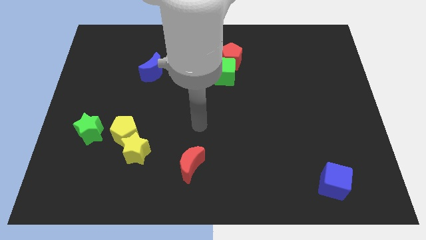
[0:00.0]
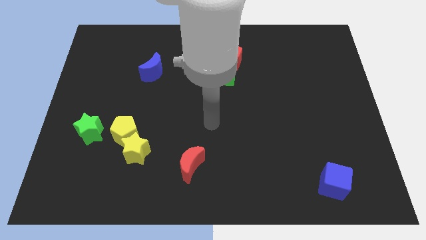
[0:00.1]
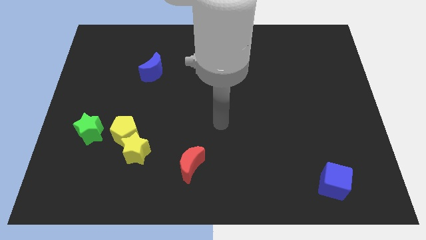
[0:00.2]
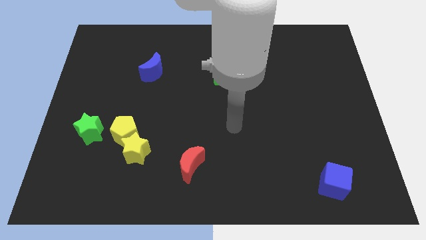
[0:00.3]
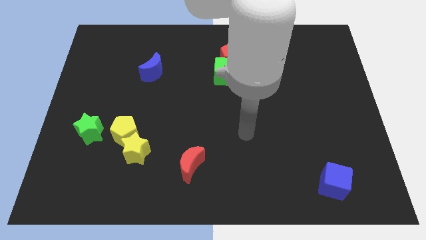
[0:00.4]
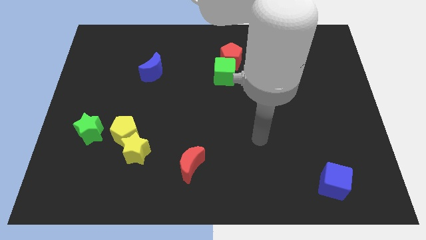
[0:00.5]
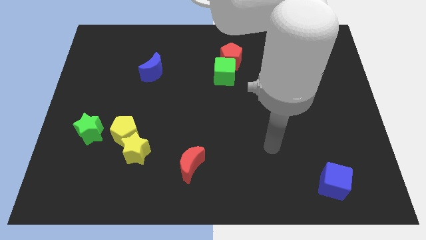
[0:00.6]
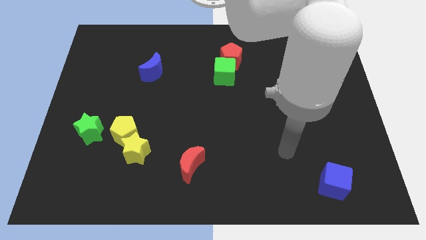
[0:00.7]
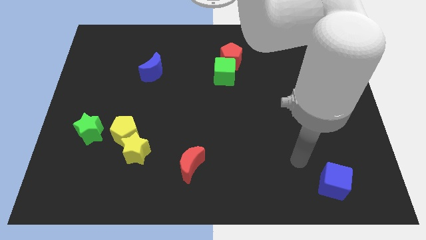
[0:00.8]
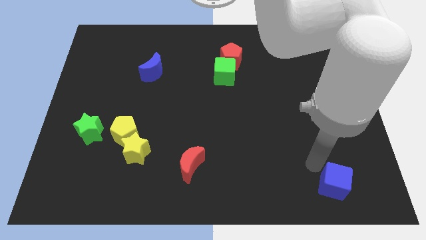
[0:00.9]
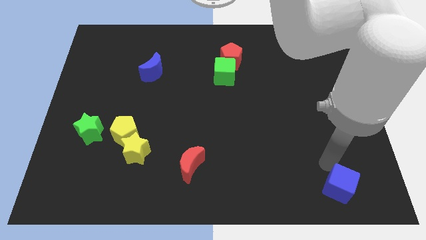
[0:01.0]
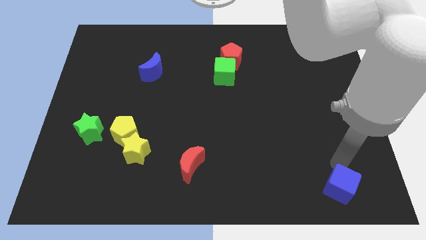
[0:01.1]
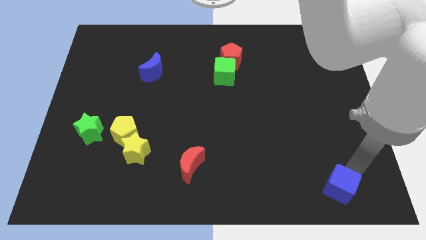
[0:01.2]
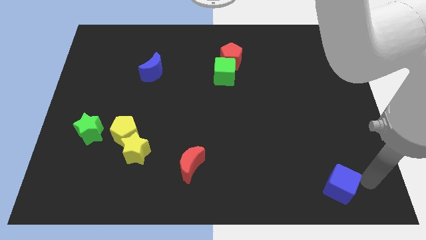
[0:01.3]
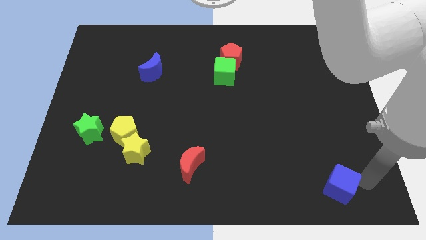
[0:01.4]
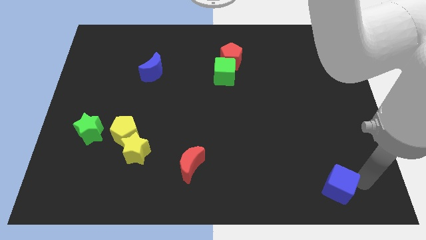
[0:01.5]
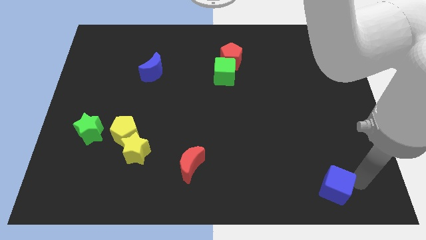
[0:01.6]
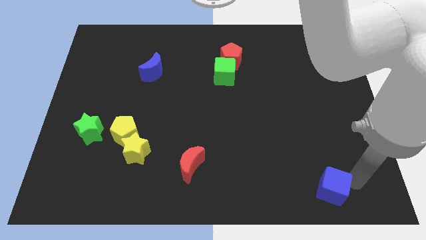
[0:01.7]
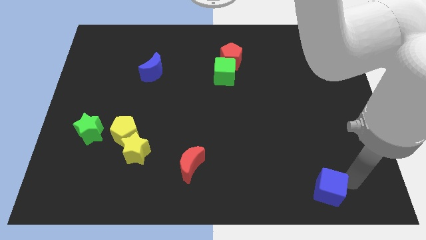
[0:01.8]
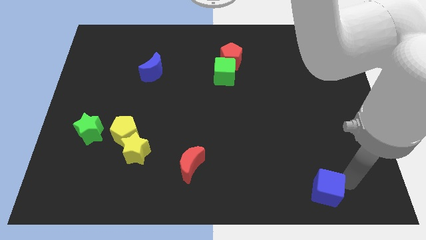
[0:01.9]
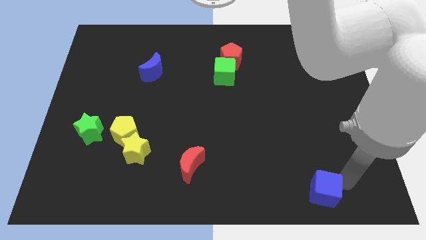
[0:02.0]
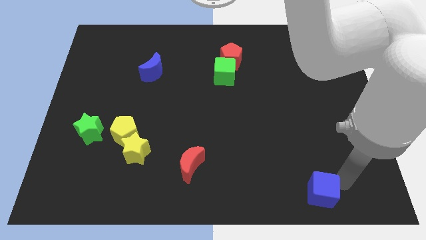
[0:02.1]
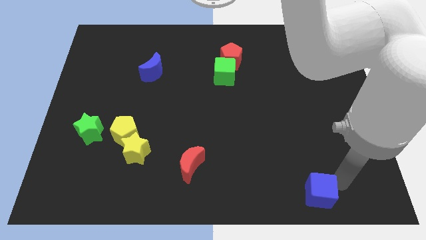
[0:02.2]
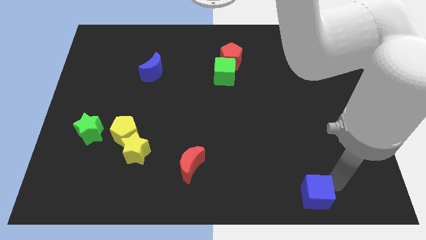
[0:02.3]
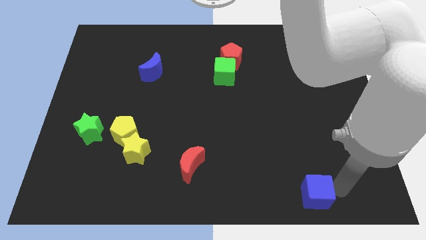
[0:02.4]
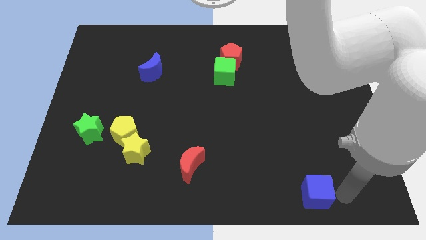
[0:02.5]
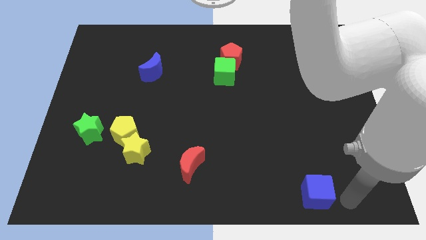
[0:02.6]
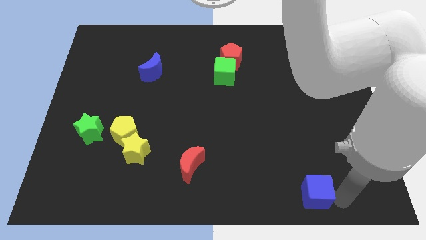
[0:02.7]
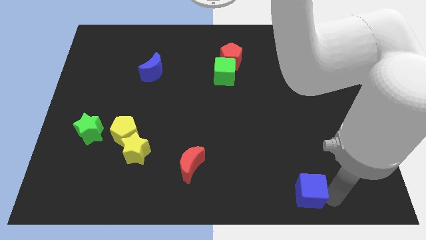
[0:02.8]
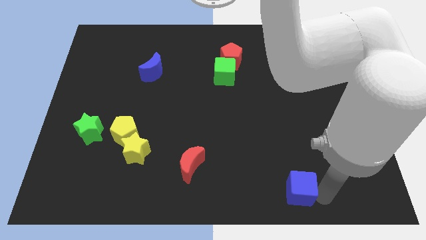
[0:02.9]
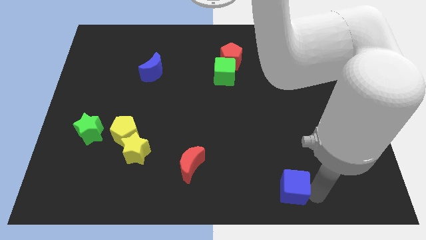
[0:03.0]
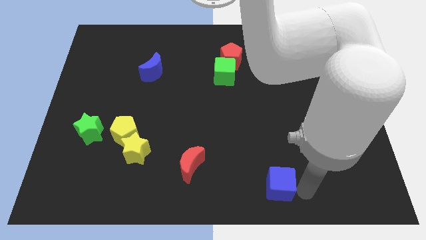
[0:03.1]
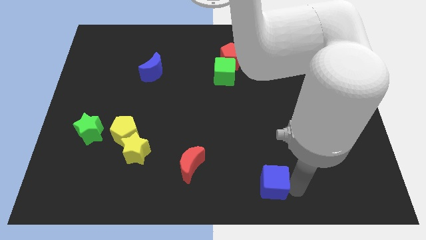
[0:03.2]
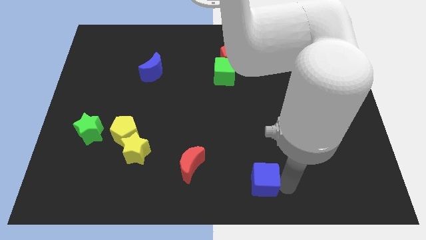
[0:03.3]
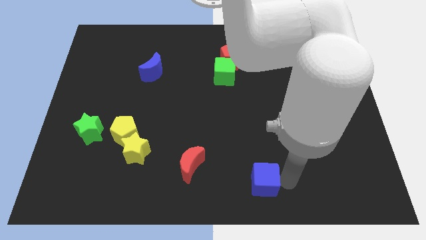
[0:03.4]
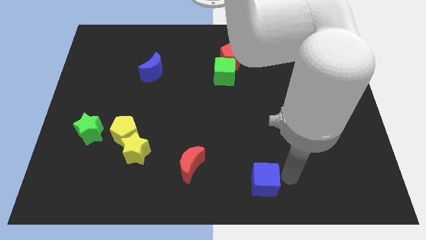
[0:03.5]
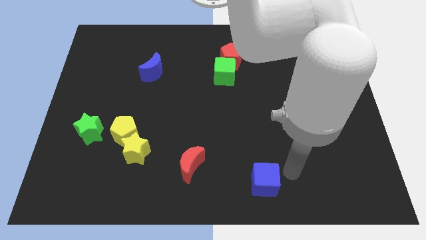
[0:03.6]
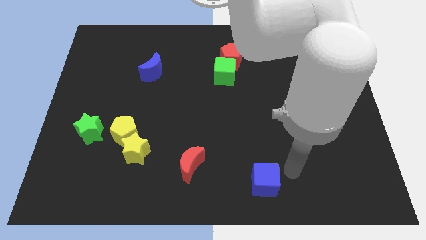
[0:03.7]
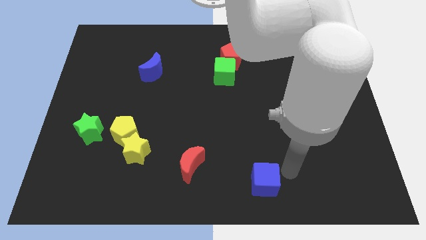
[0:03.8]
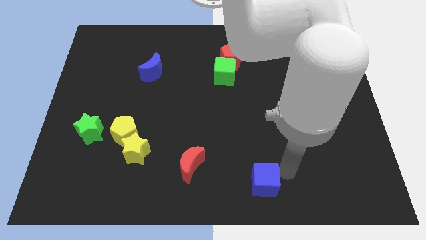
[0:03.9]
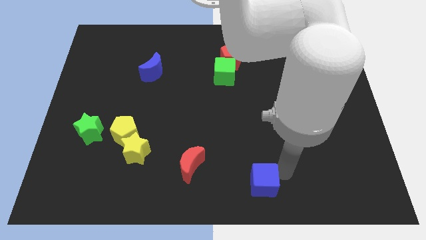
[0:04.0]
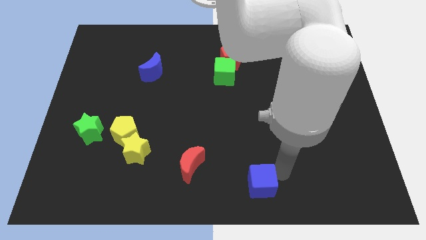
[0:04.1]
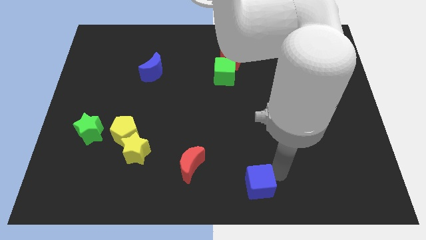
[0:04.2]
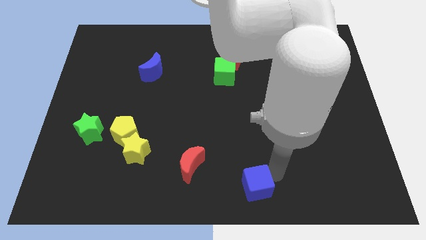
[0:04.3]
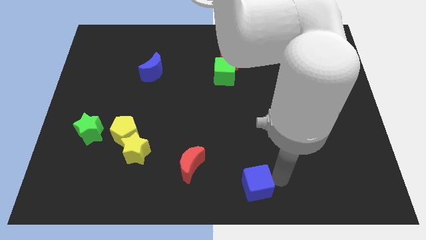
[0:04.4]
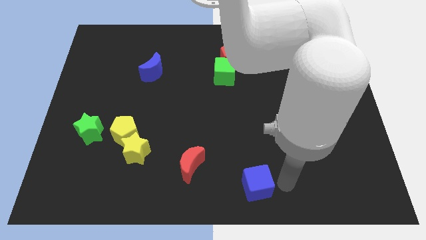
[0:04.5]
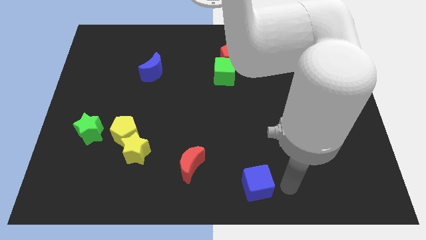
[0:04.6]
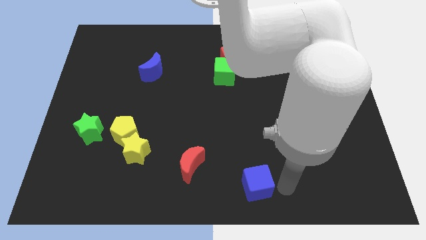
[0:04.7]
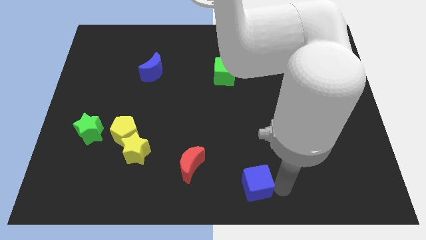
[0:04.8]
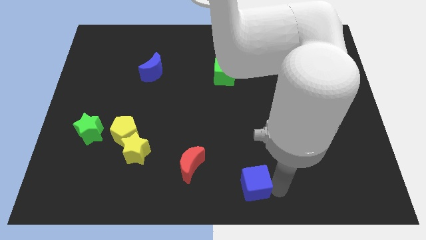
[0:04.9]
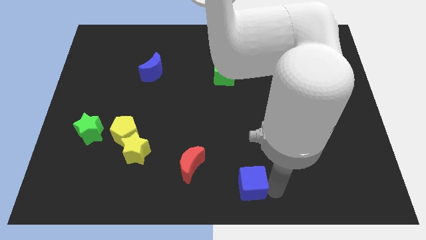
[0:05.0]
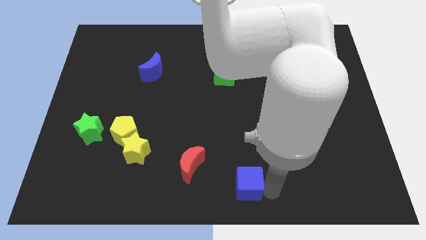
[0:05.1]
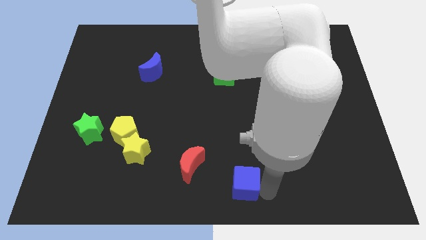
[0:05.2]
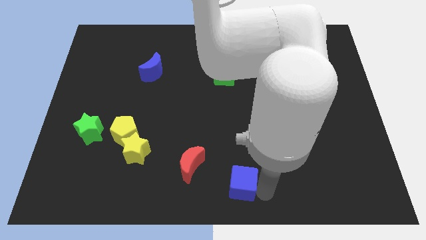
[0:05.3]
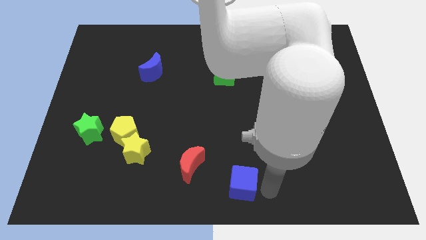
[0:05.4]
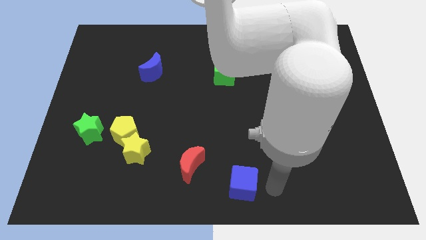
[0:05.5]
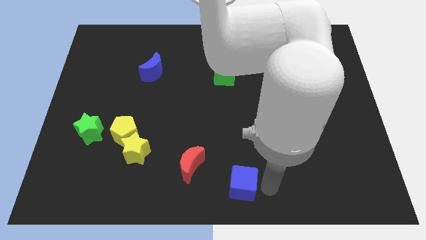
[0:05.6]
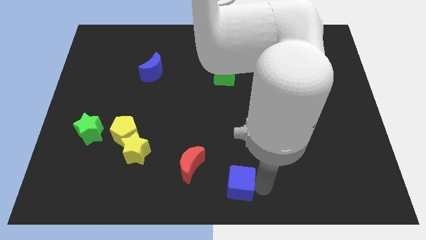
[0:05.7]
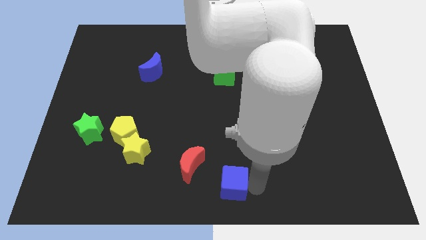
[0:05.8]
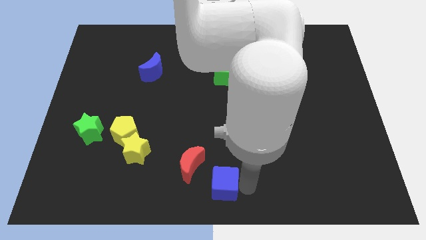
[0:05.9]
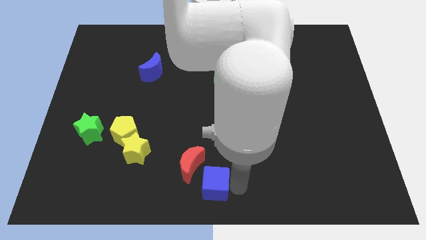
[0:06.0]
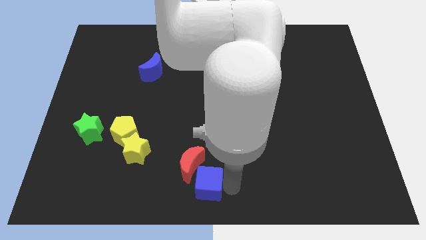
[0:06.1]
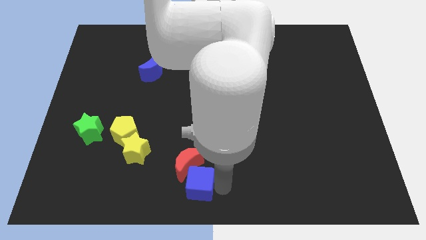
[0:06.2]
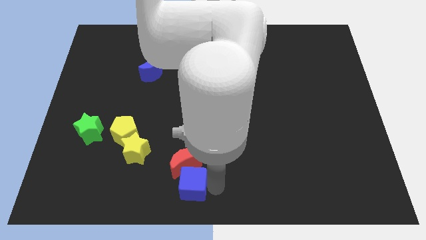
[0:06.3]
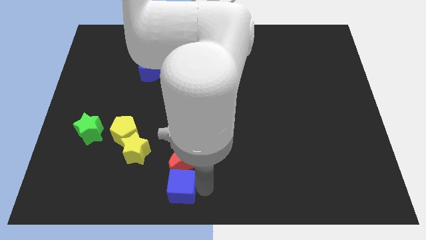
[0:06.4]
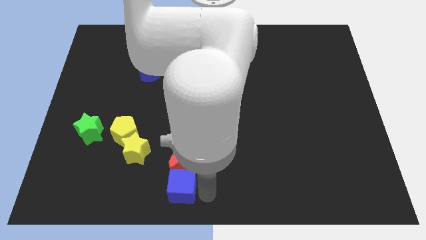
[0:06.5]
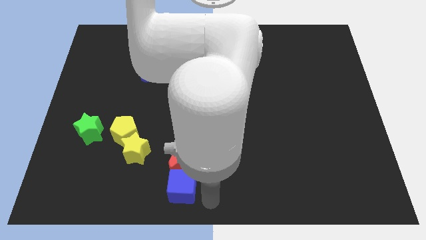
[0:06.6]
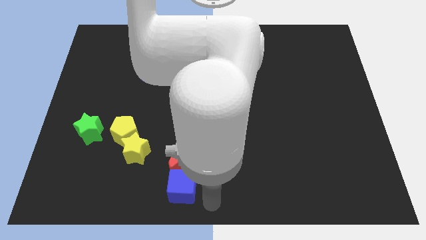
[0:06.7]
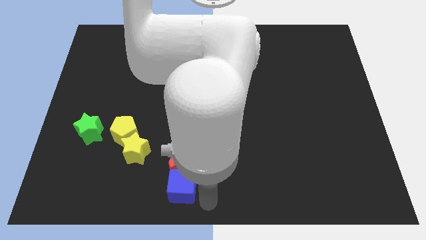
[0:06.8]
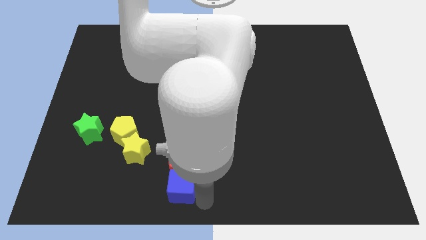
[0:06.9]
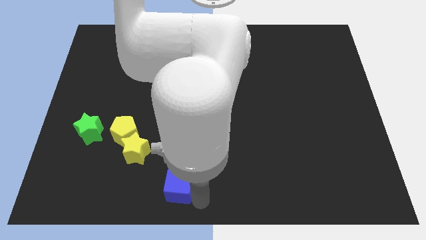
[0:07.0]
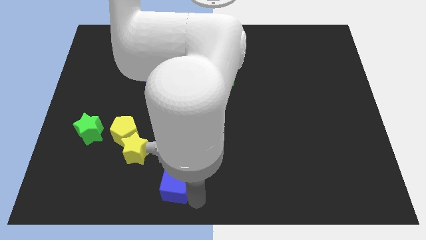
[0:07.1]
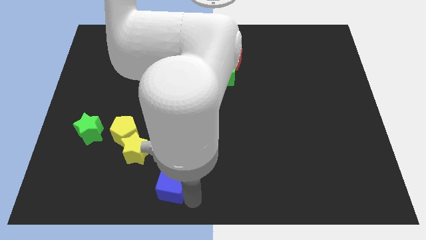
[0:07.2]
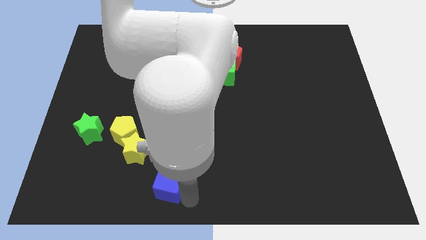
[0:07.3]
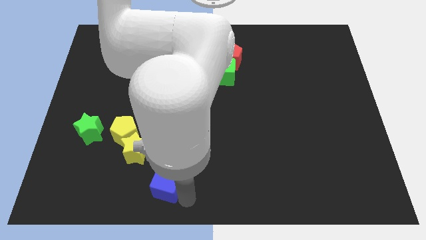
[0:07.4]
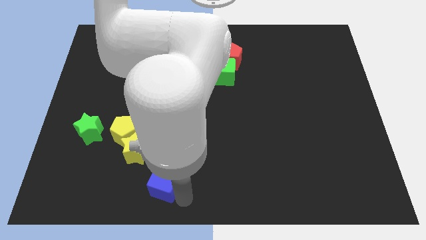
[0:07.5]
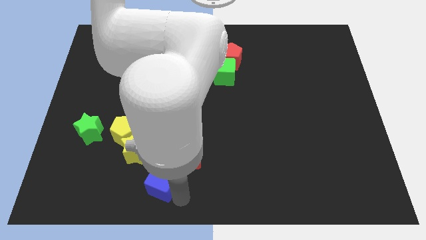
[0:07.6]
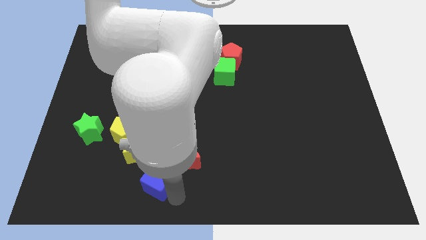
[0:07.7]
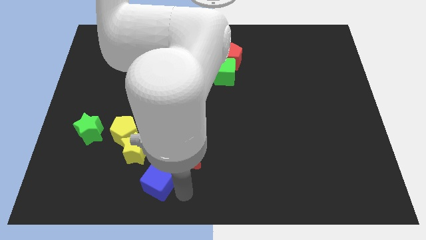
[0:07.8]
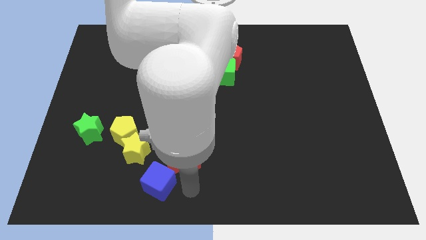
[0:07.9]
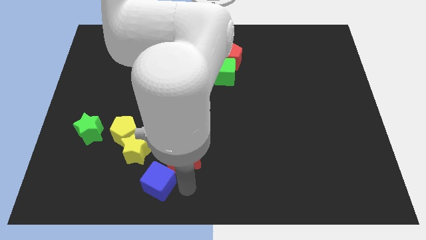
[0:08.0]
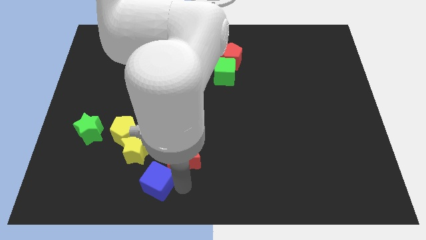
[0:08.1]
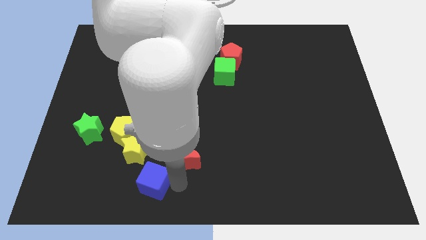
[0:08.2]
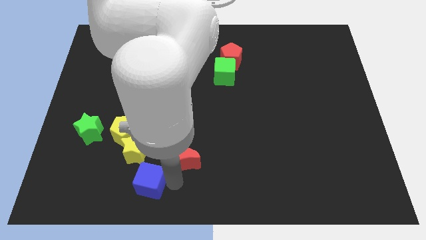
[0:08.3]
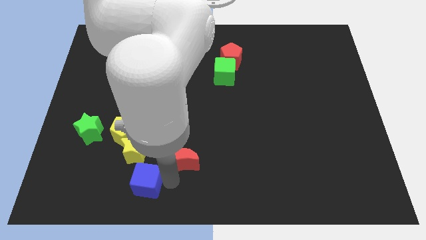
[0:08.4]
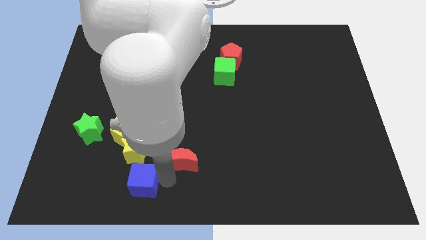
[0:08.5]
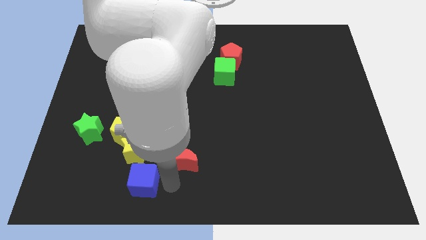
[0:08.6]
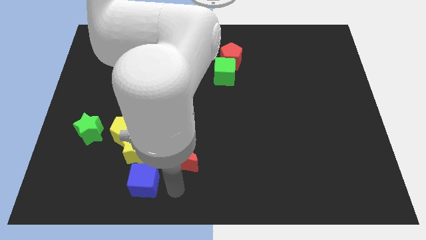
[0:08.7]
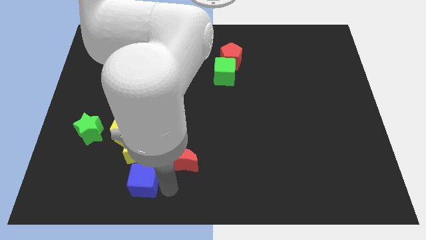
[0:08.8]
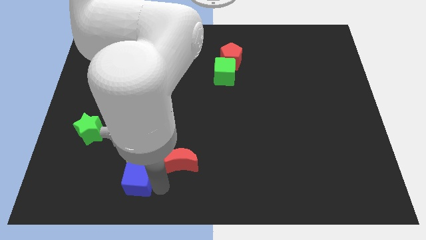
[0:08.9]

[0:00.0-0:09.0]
put the blue cube below the yellow pentagon
